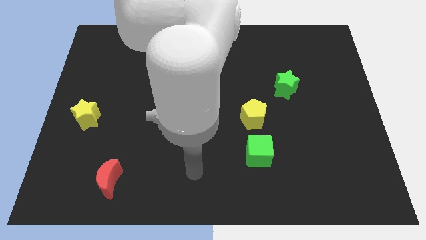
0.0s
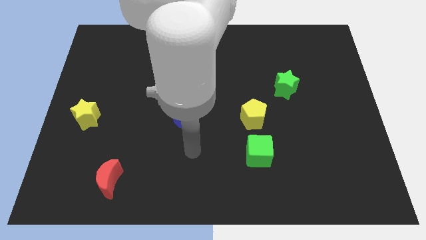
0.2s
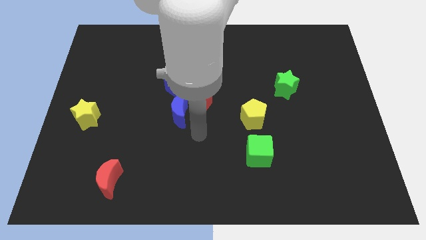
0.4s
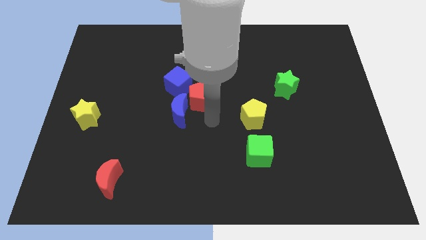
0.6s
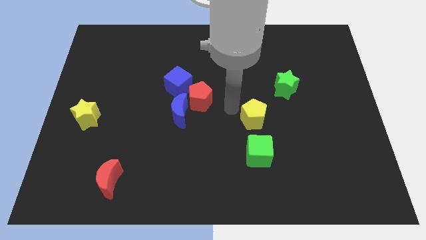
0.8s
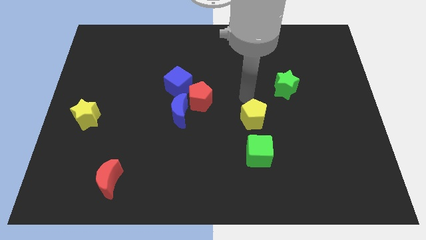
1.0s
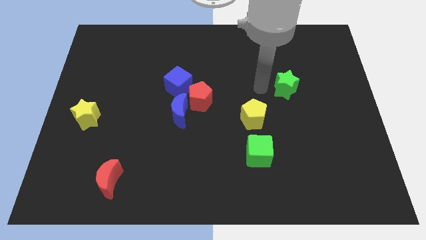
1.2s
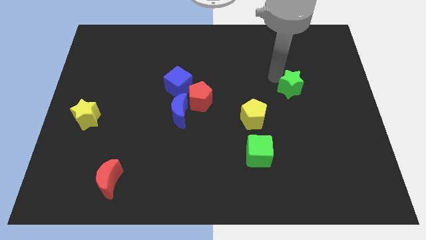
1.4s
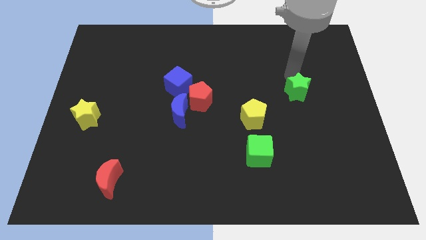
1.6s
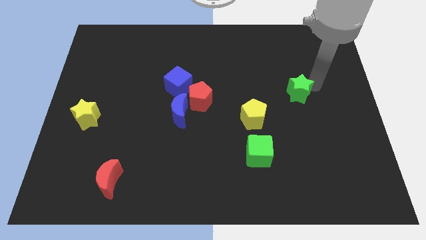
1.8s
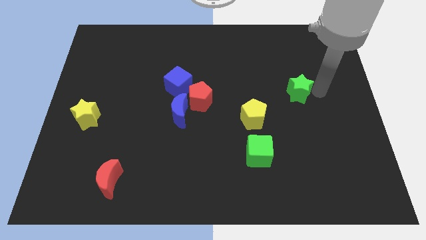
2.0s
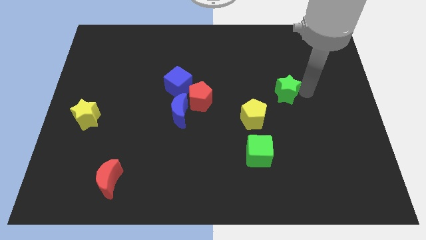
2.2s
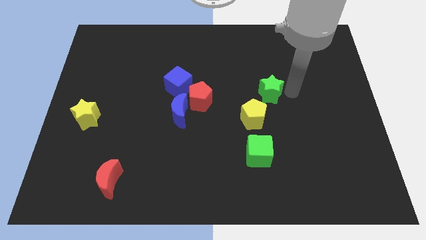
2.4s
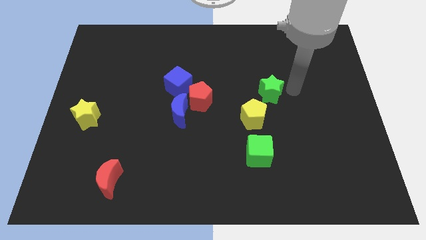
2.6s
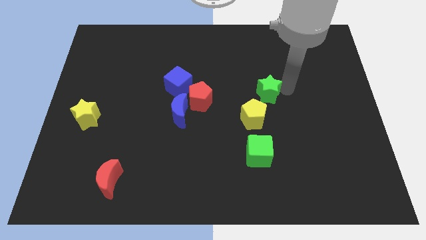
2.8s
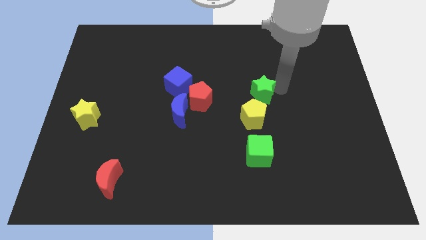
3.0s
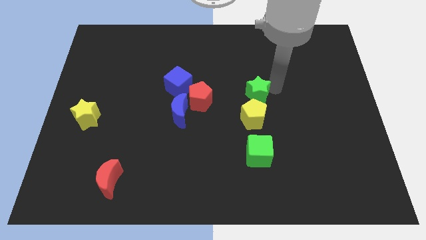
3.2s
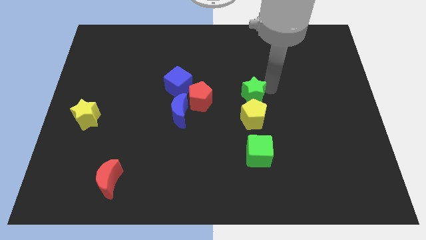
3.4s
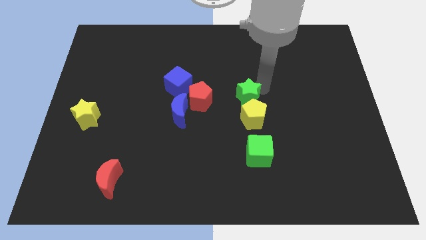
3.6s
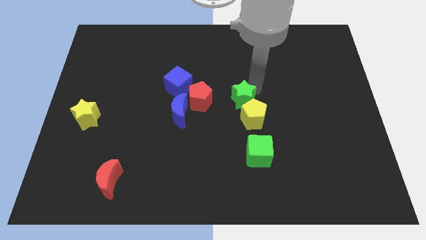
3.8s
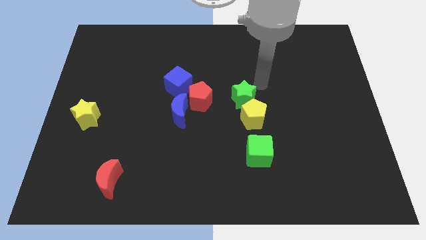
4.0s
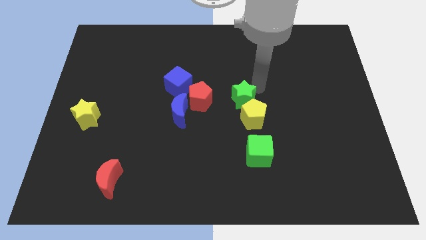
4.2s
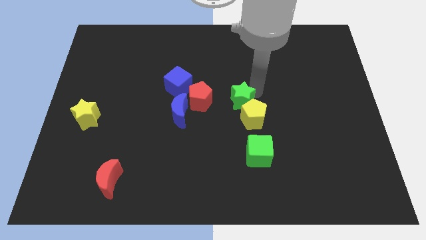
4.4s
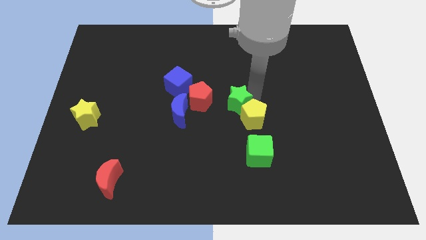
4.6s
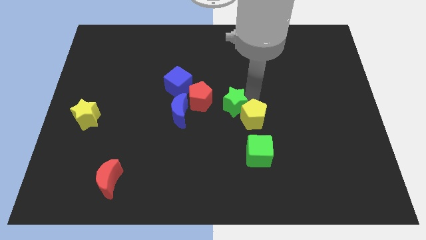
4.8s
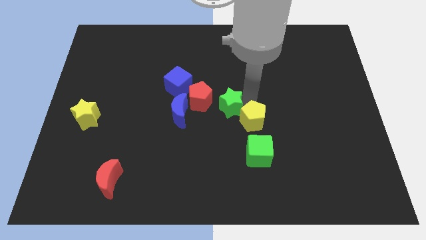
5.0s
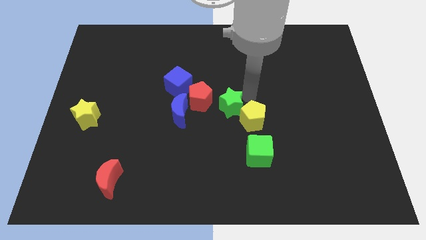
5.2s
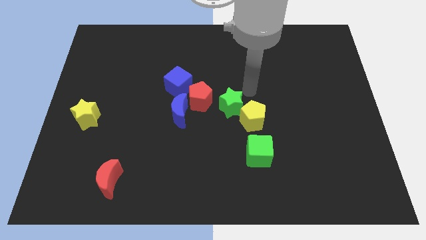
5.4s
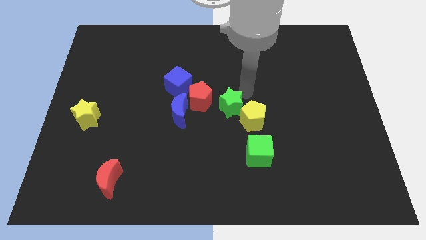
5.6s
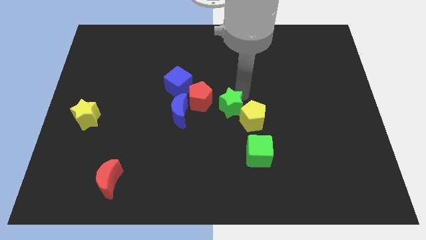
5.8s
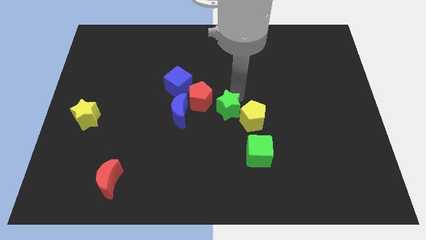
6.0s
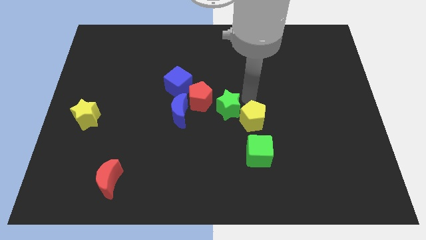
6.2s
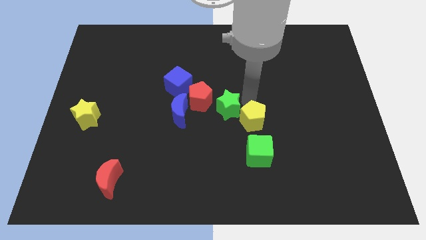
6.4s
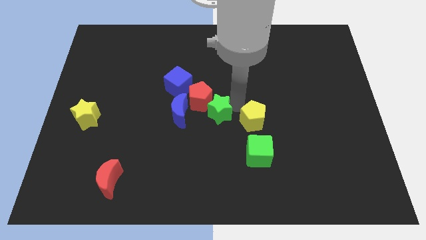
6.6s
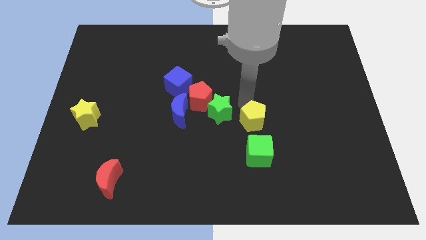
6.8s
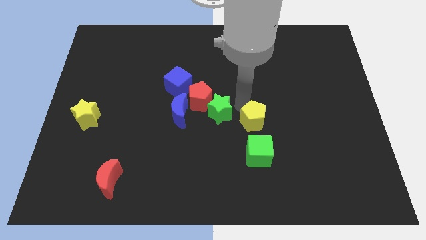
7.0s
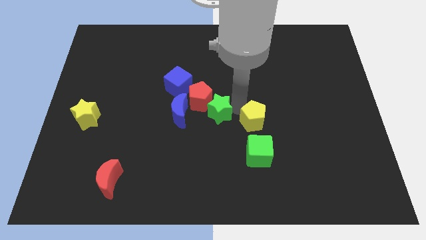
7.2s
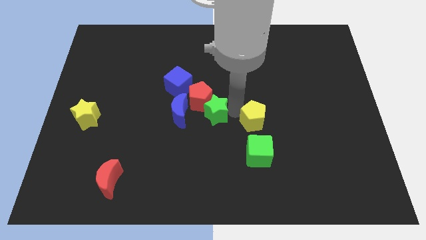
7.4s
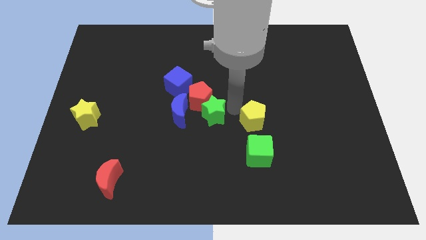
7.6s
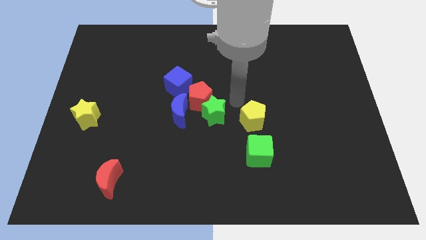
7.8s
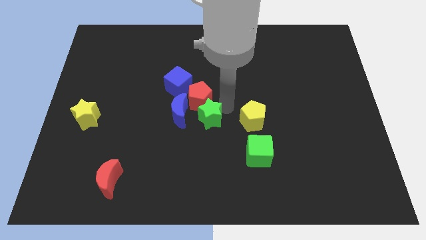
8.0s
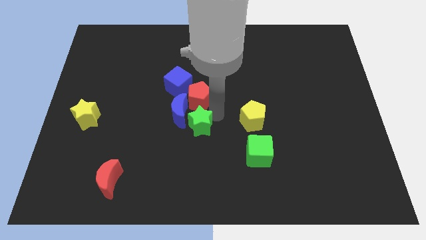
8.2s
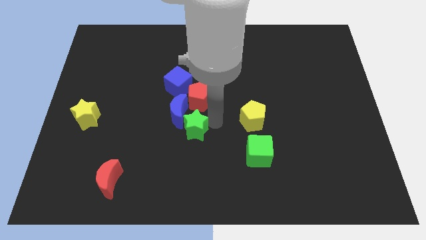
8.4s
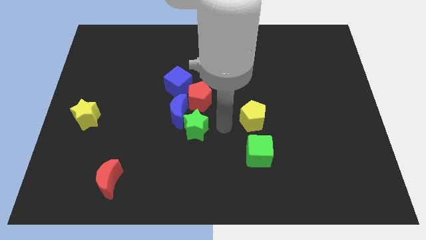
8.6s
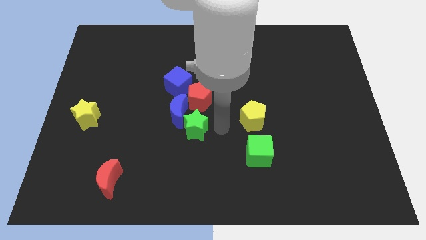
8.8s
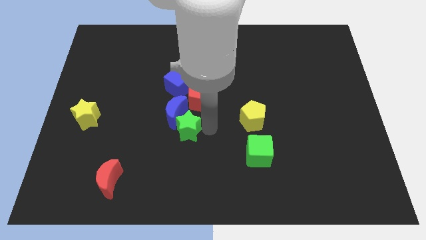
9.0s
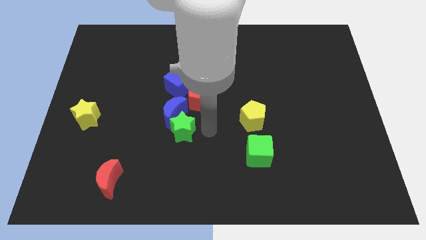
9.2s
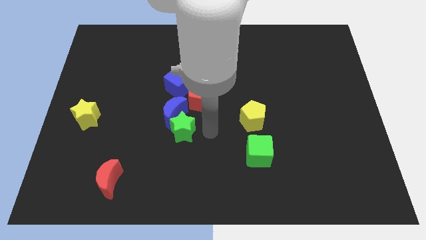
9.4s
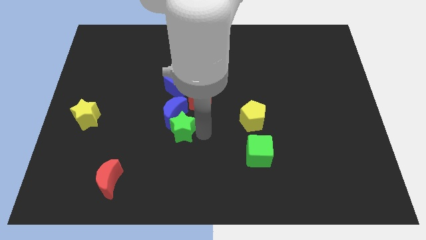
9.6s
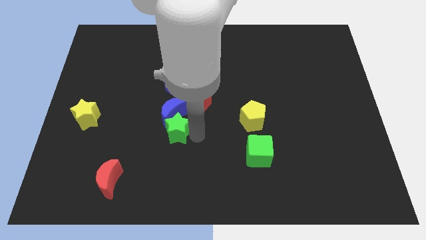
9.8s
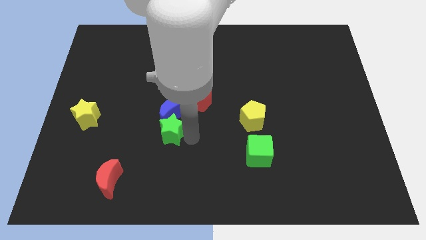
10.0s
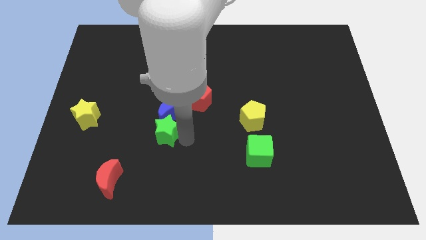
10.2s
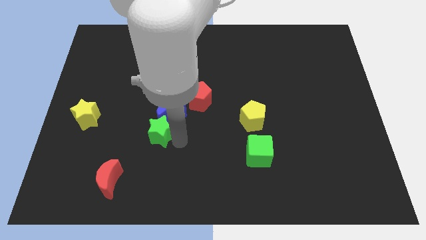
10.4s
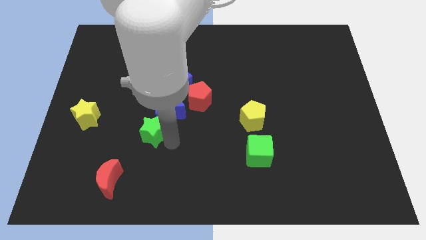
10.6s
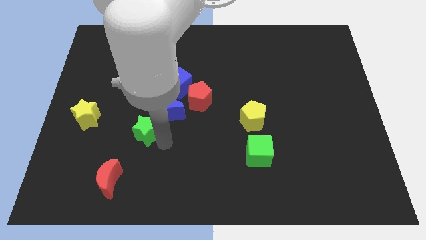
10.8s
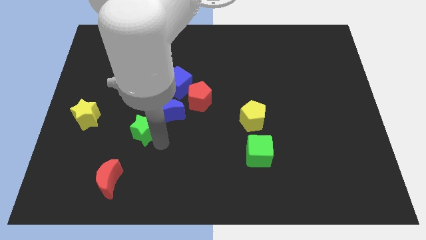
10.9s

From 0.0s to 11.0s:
put the green star to the right side of the yellow star

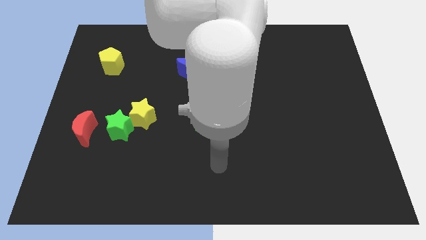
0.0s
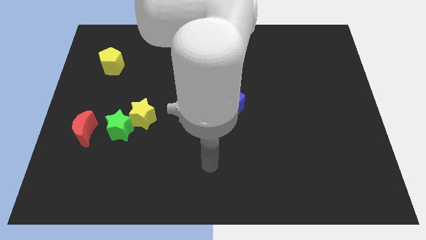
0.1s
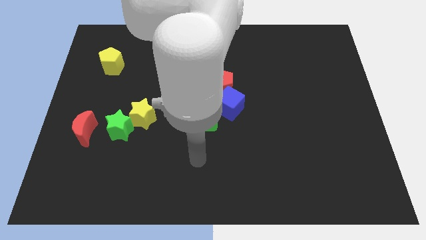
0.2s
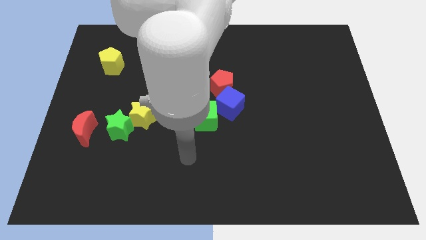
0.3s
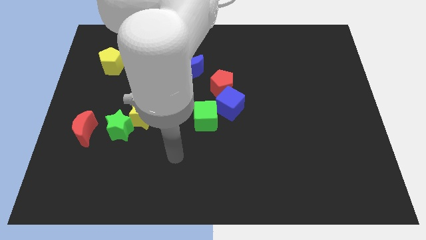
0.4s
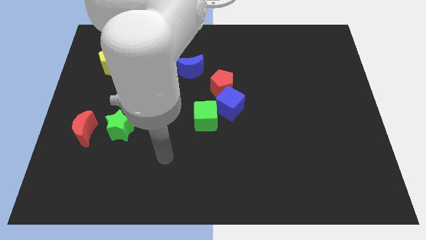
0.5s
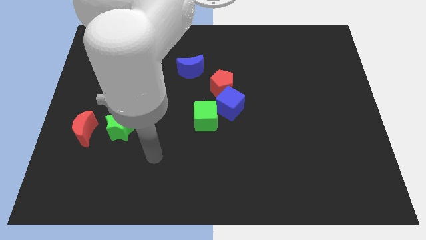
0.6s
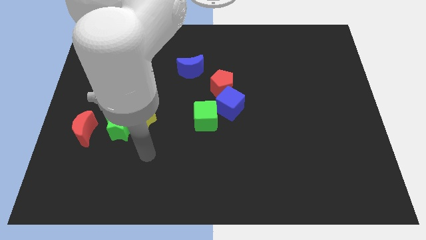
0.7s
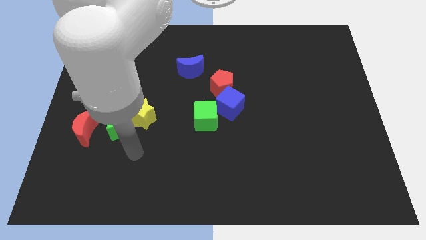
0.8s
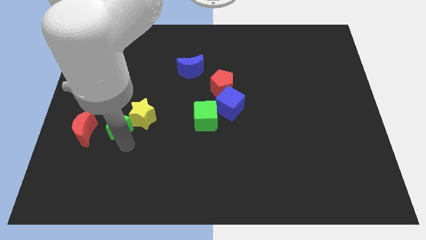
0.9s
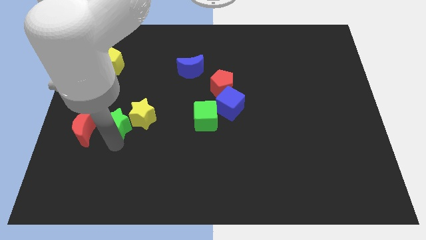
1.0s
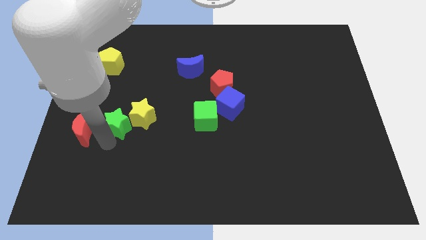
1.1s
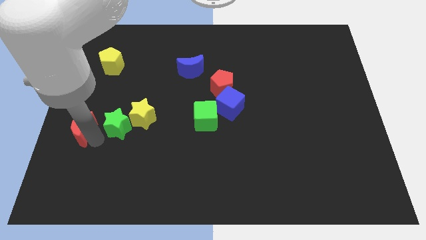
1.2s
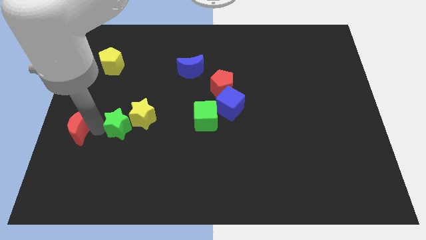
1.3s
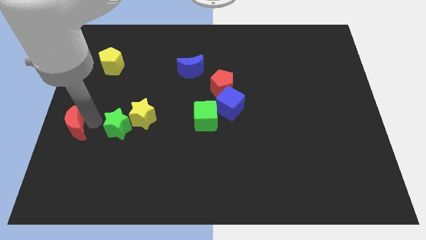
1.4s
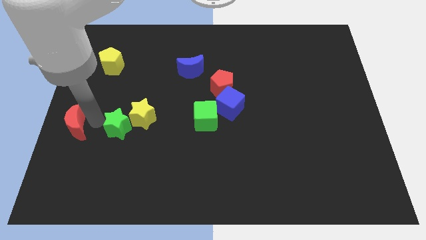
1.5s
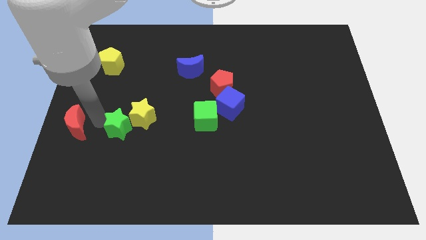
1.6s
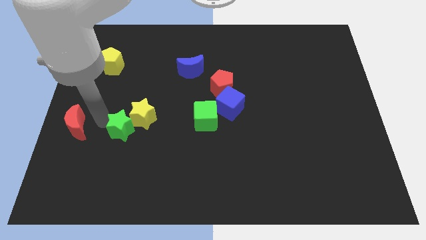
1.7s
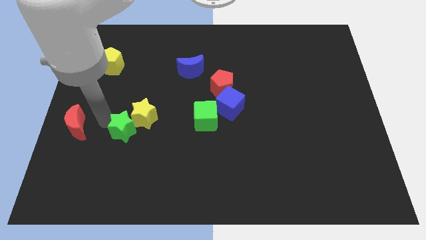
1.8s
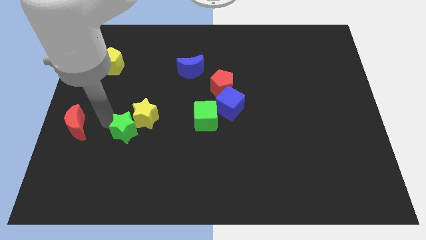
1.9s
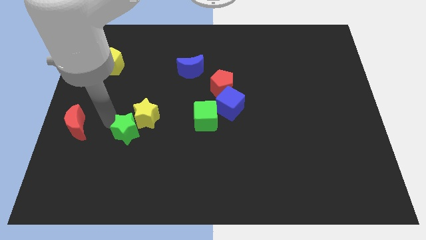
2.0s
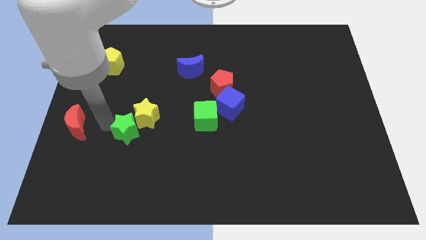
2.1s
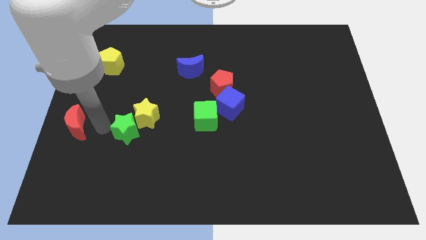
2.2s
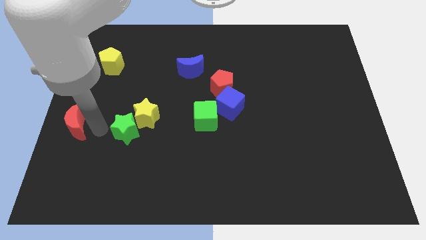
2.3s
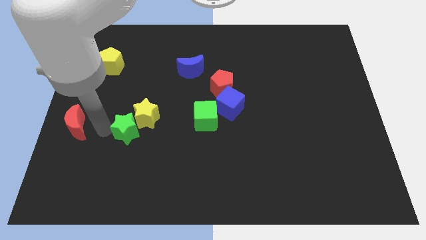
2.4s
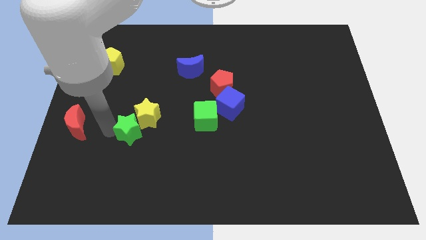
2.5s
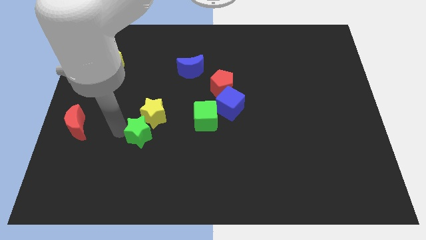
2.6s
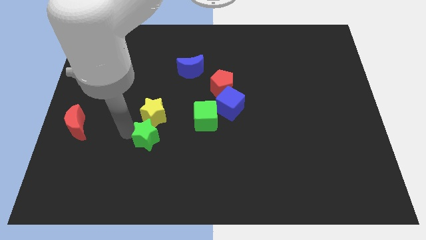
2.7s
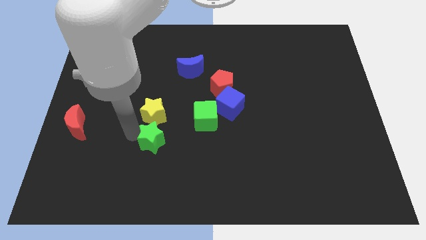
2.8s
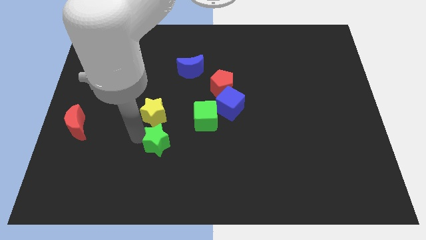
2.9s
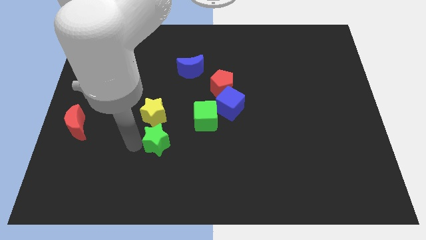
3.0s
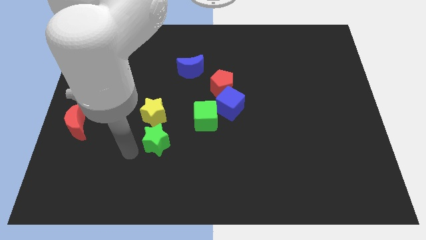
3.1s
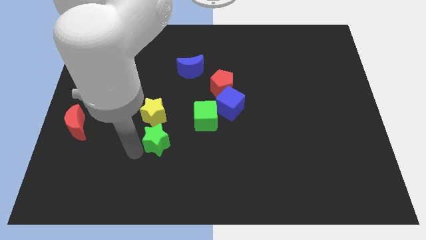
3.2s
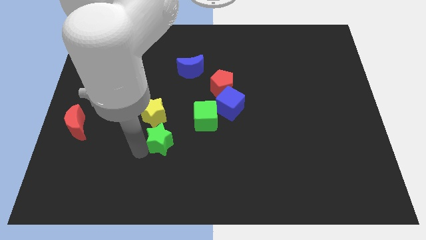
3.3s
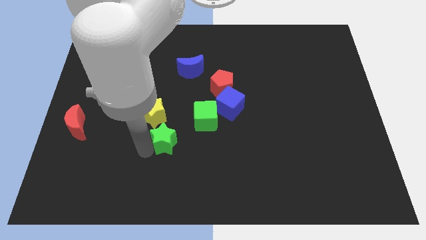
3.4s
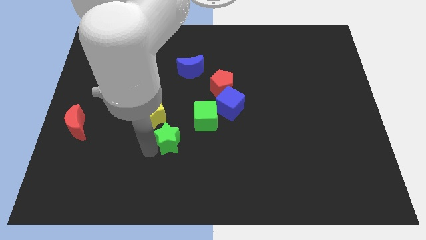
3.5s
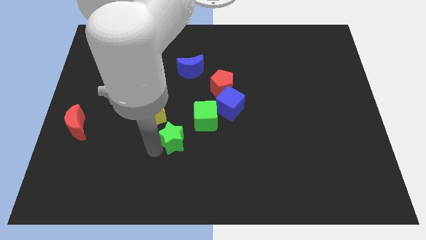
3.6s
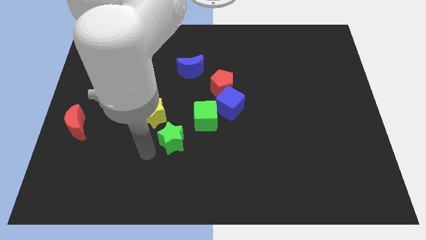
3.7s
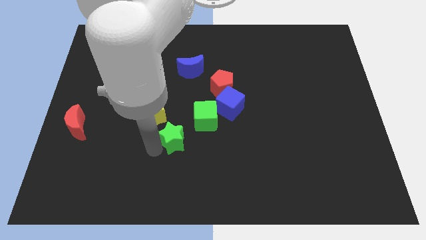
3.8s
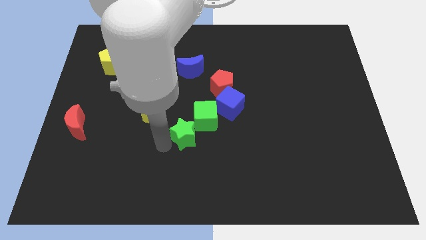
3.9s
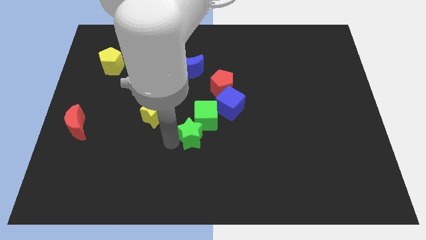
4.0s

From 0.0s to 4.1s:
move the green star diagonally down and to the left of the blue cube
